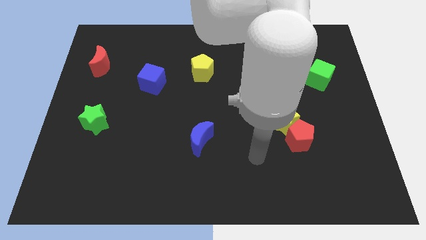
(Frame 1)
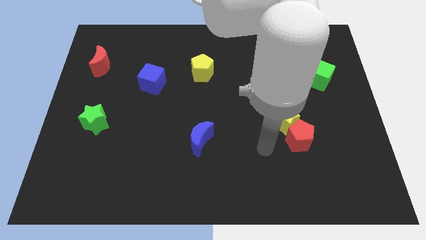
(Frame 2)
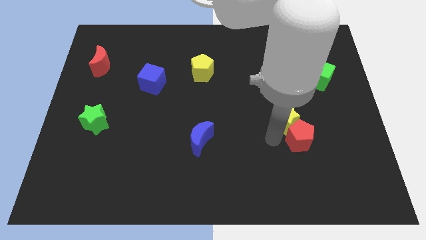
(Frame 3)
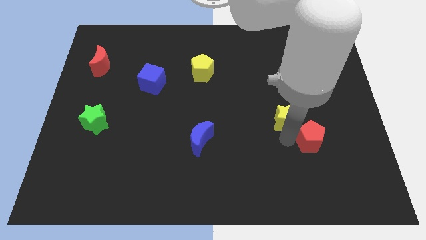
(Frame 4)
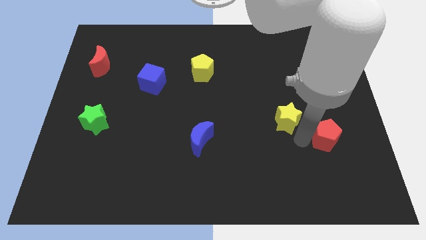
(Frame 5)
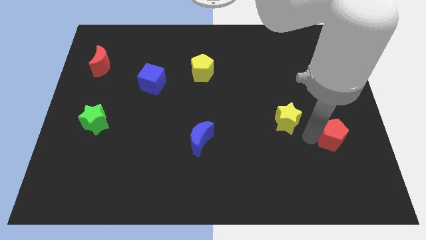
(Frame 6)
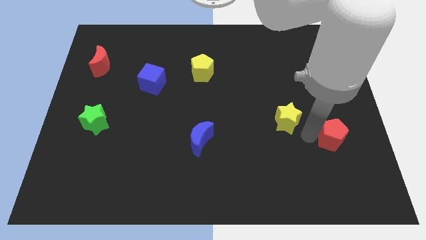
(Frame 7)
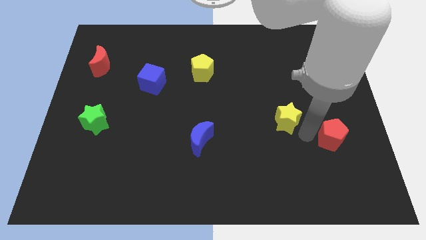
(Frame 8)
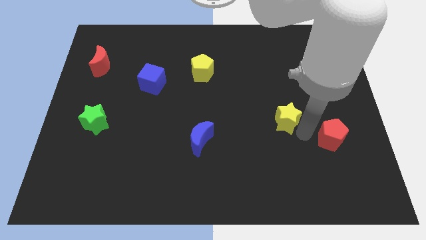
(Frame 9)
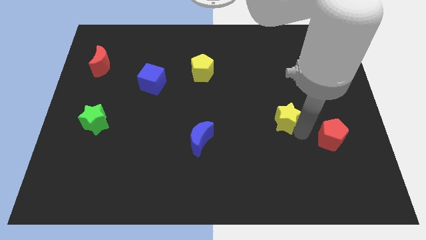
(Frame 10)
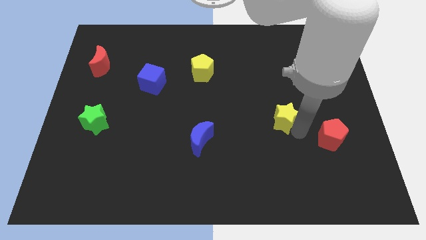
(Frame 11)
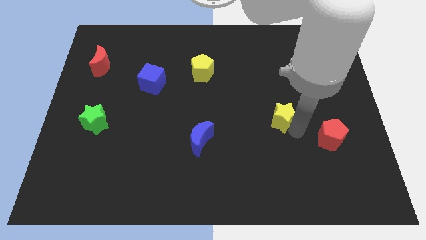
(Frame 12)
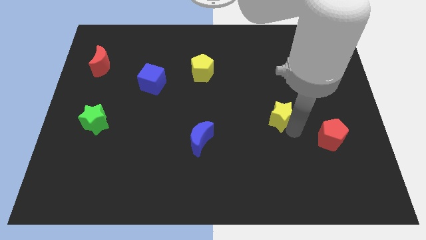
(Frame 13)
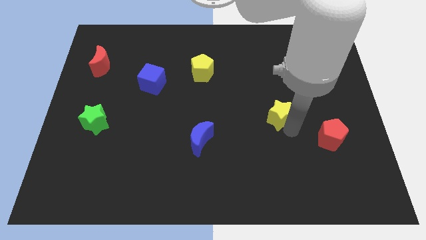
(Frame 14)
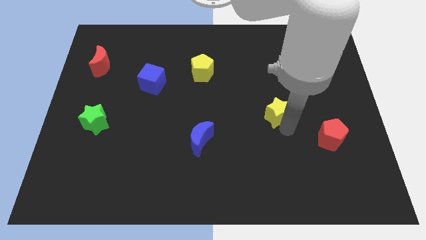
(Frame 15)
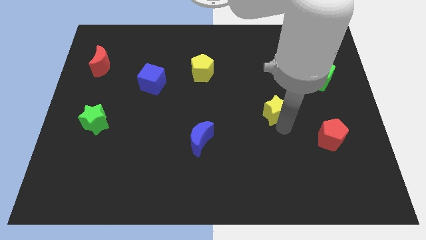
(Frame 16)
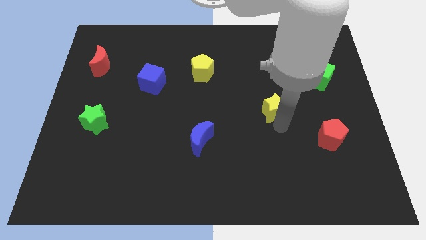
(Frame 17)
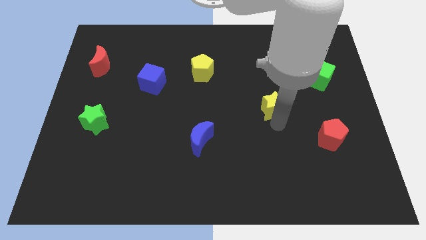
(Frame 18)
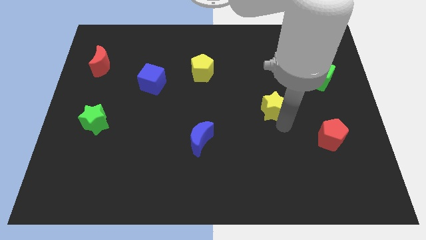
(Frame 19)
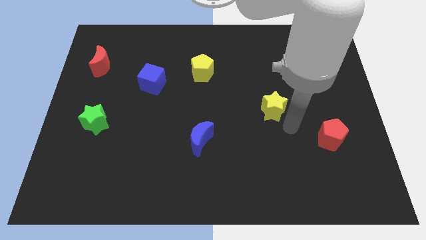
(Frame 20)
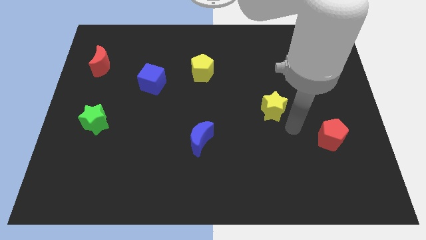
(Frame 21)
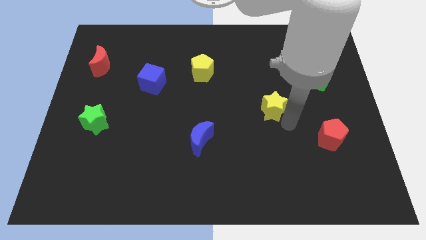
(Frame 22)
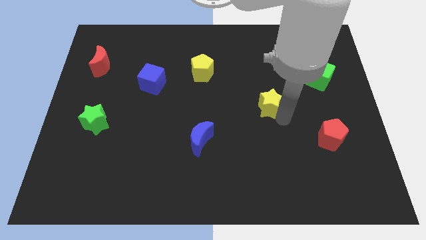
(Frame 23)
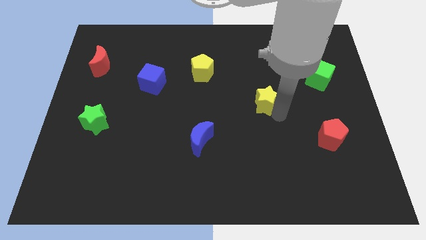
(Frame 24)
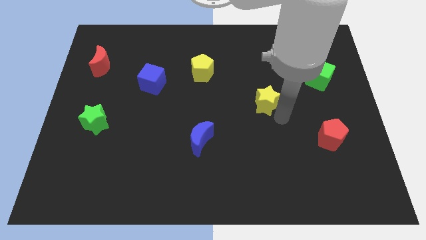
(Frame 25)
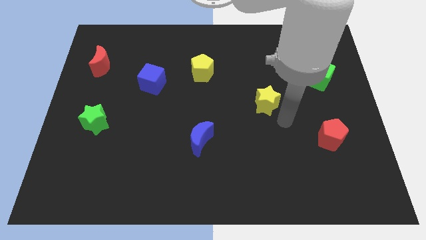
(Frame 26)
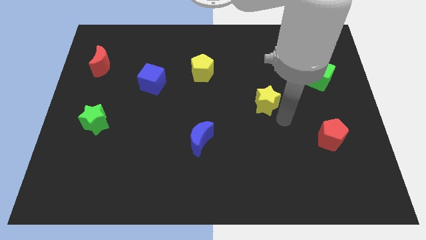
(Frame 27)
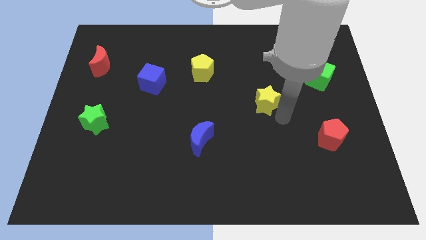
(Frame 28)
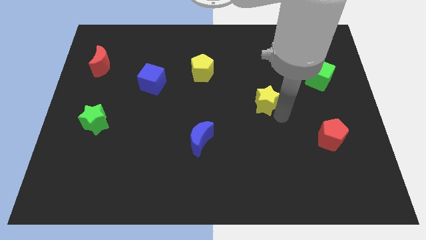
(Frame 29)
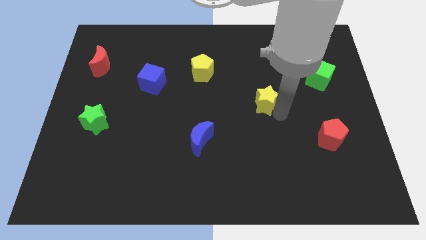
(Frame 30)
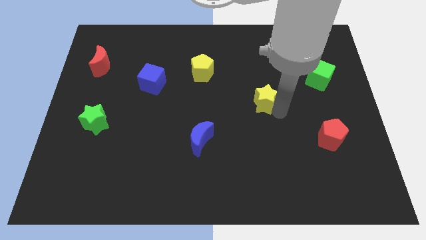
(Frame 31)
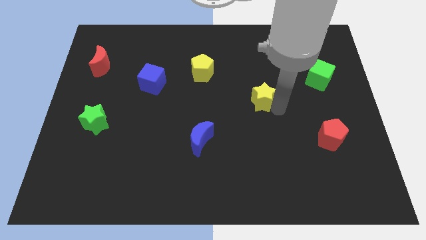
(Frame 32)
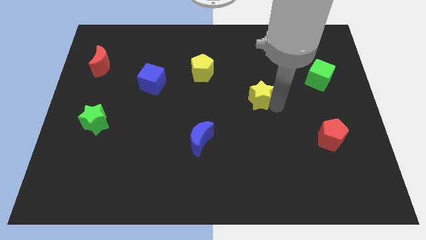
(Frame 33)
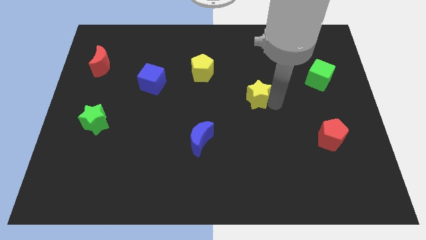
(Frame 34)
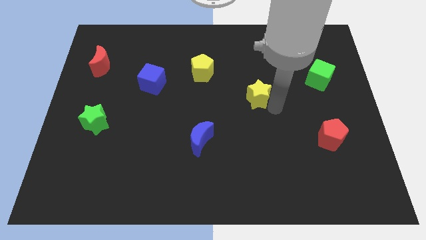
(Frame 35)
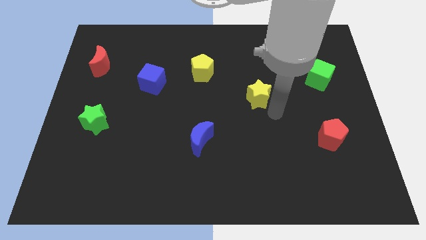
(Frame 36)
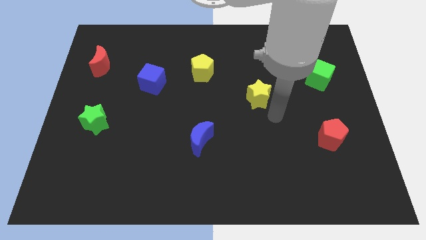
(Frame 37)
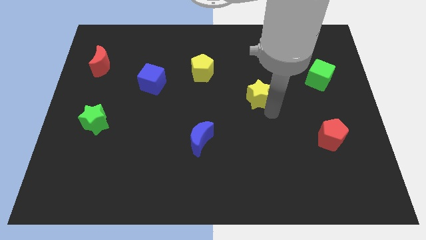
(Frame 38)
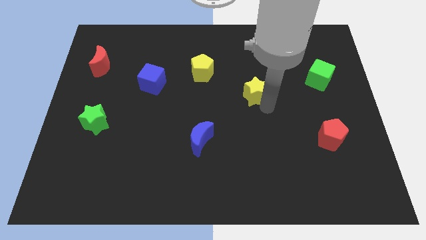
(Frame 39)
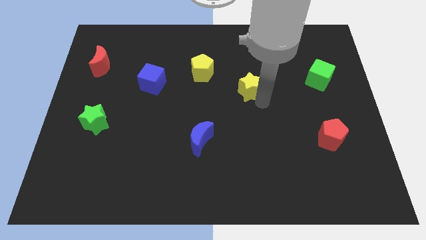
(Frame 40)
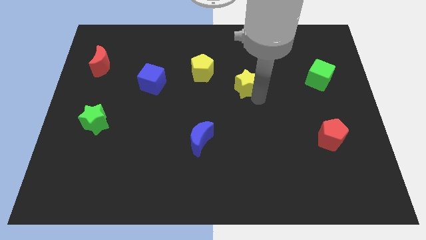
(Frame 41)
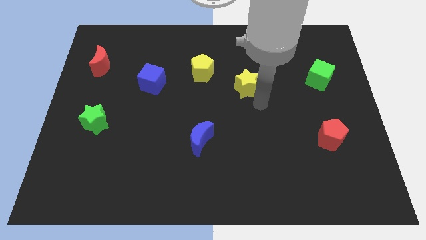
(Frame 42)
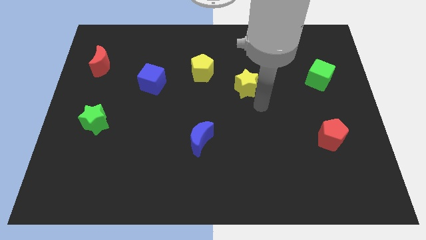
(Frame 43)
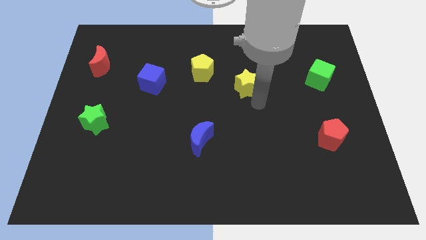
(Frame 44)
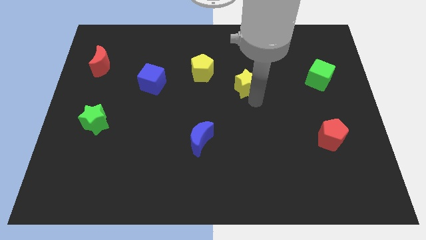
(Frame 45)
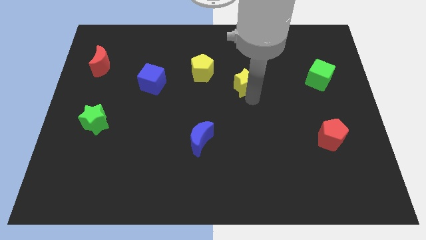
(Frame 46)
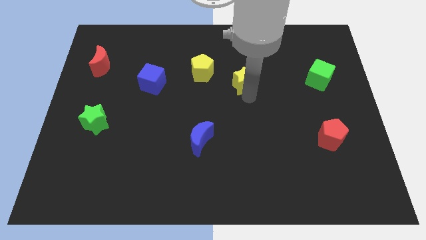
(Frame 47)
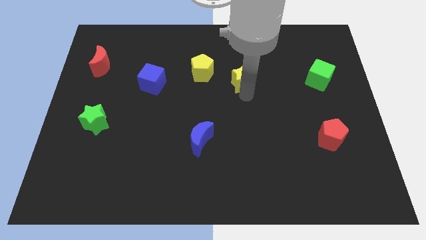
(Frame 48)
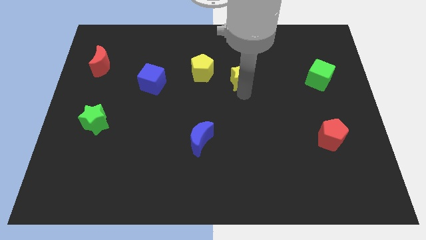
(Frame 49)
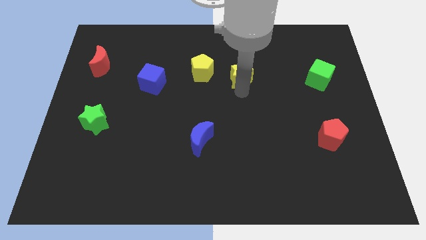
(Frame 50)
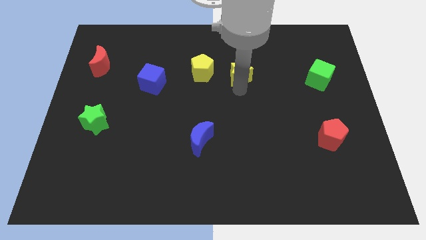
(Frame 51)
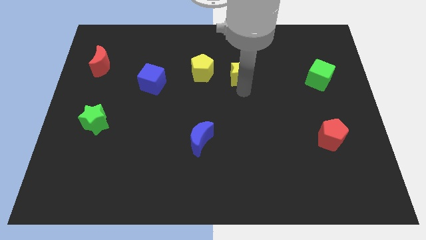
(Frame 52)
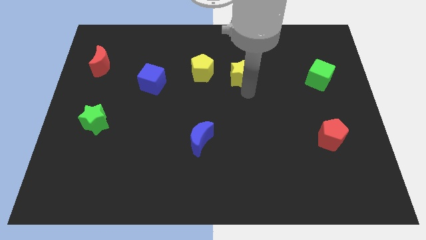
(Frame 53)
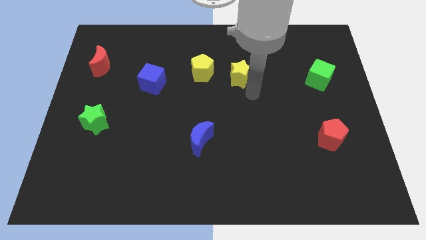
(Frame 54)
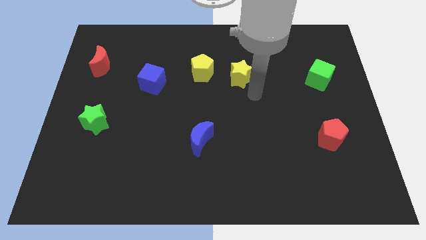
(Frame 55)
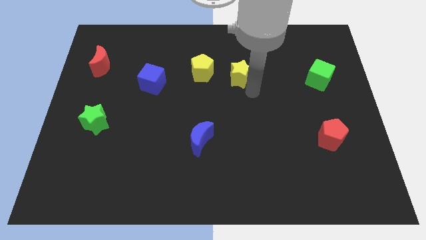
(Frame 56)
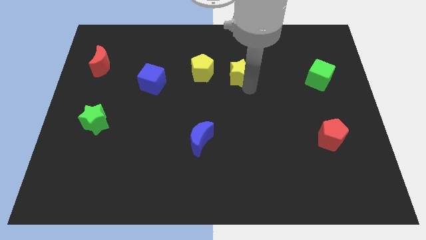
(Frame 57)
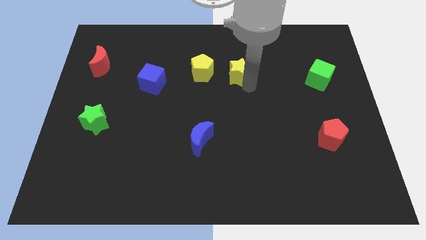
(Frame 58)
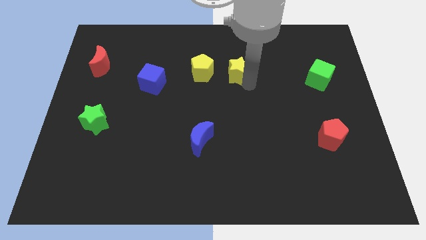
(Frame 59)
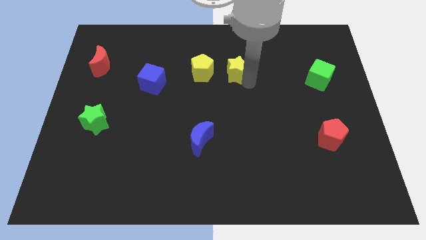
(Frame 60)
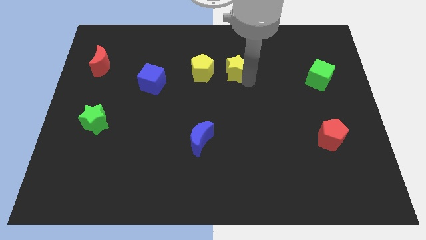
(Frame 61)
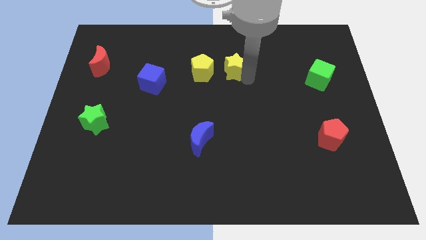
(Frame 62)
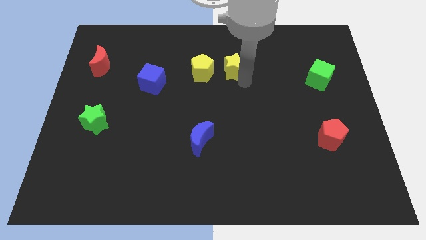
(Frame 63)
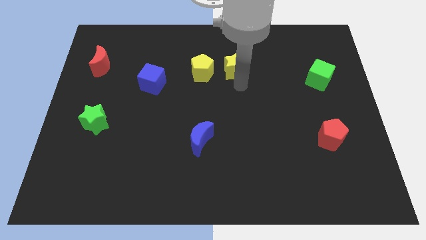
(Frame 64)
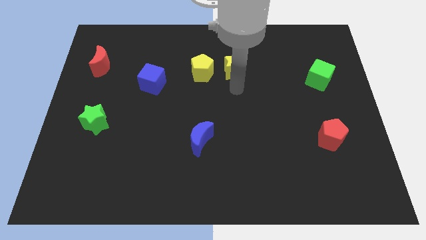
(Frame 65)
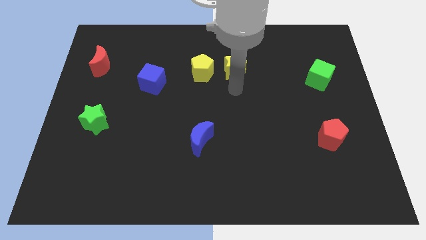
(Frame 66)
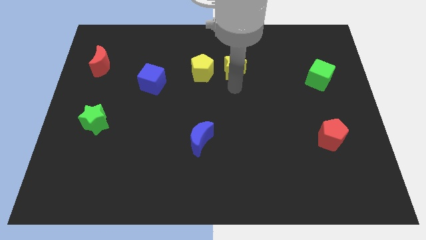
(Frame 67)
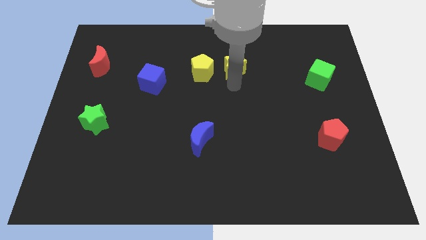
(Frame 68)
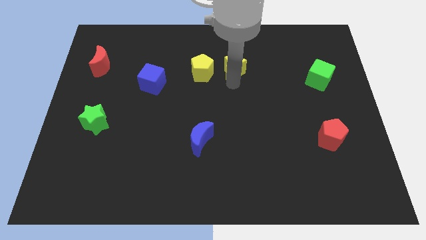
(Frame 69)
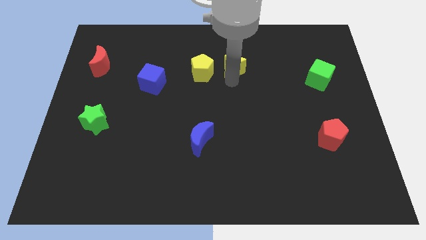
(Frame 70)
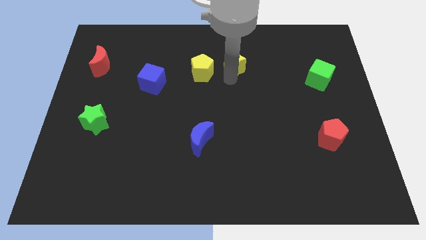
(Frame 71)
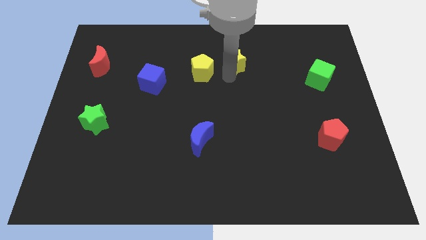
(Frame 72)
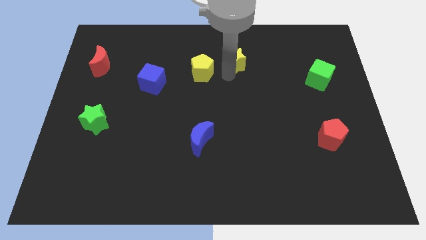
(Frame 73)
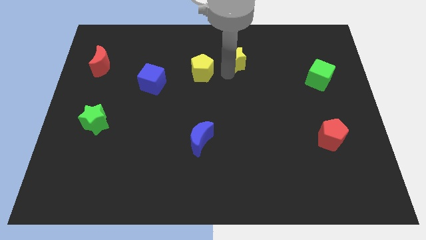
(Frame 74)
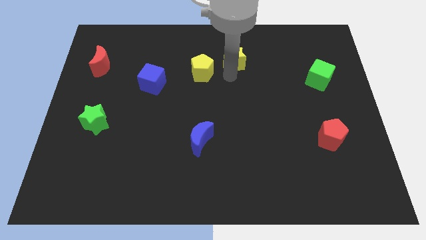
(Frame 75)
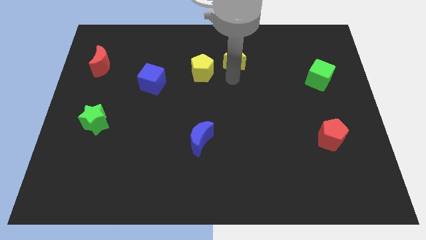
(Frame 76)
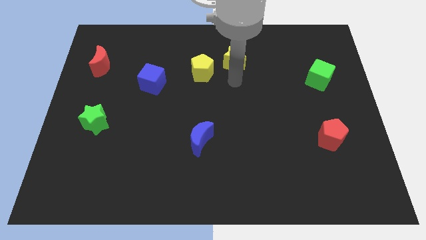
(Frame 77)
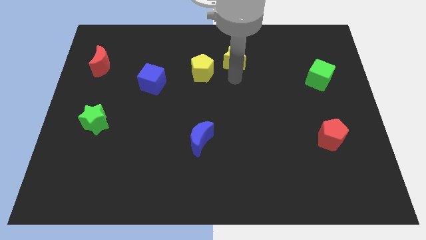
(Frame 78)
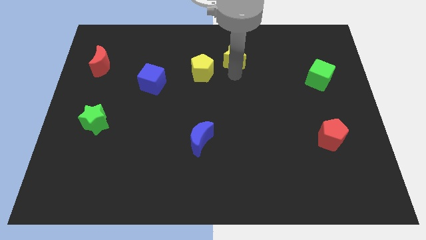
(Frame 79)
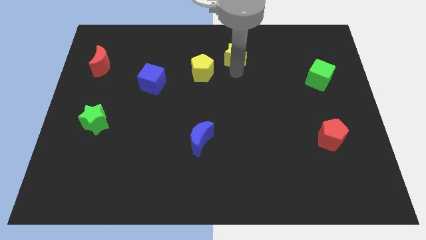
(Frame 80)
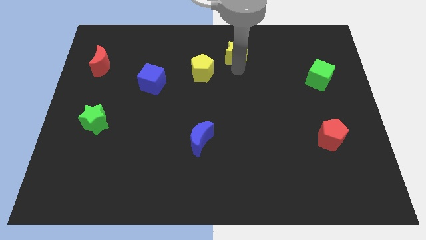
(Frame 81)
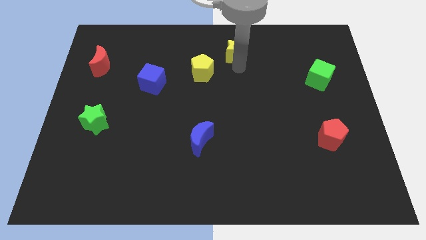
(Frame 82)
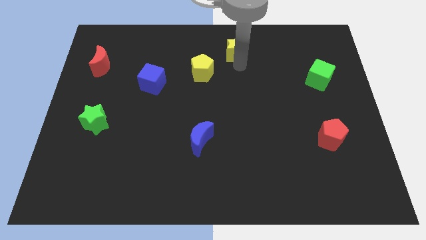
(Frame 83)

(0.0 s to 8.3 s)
push the yellow star to the top side
